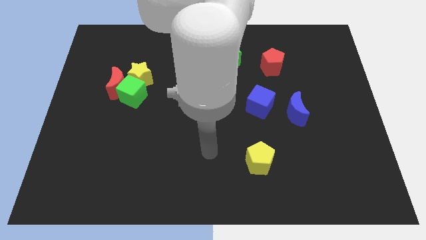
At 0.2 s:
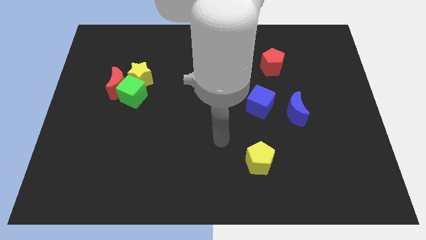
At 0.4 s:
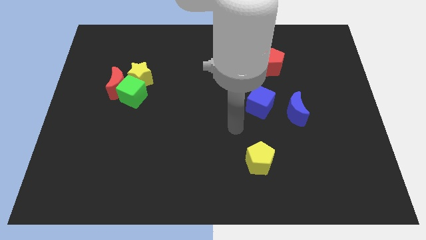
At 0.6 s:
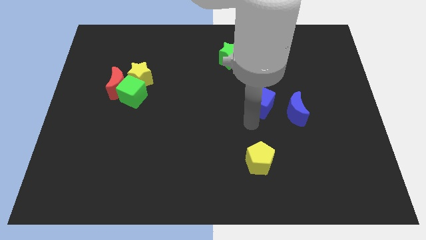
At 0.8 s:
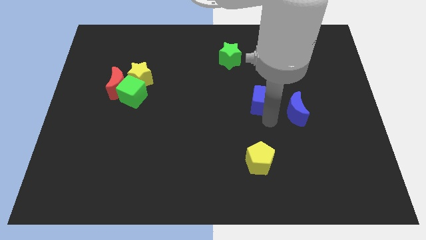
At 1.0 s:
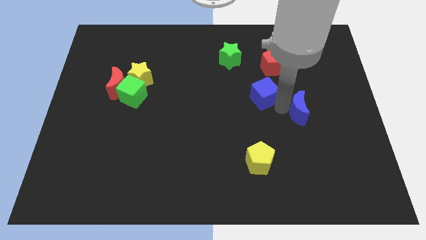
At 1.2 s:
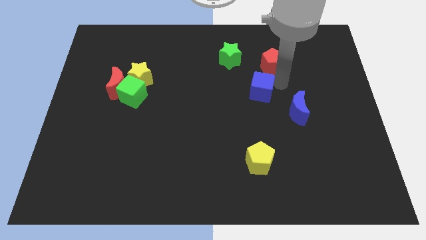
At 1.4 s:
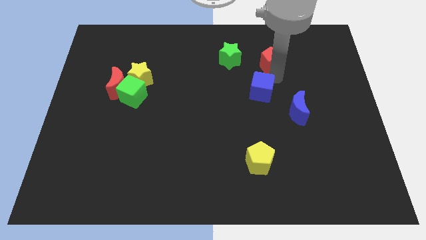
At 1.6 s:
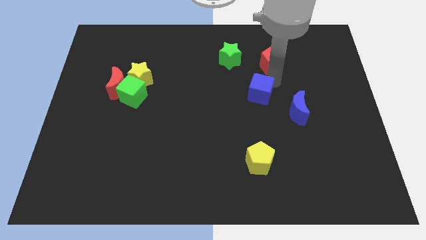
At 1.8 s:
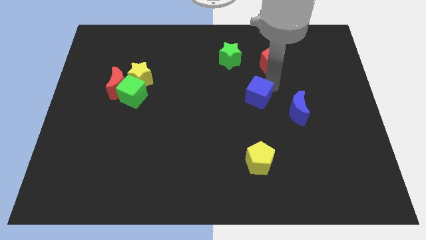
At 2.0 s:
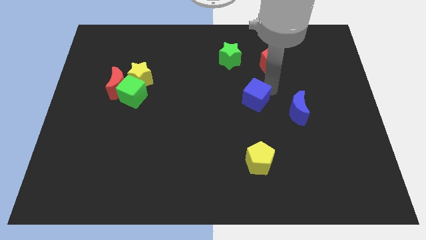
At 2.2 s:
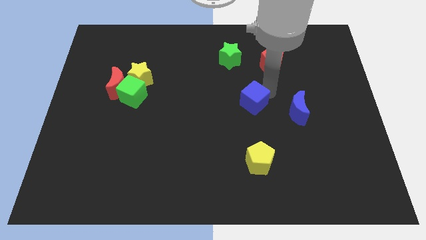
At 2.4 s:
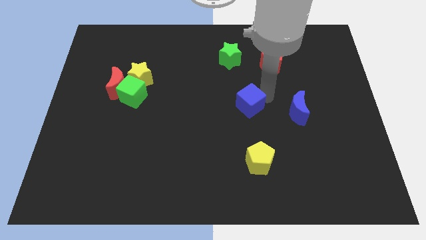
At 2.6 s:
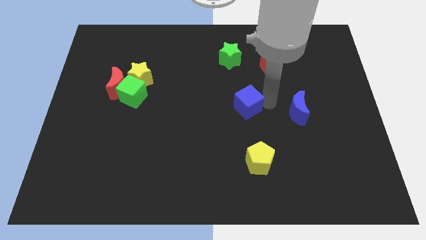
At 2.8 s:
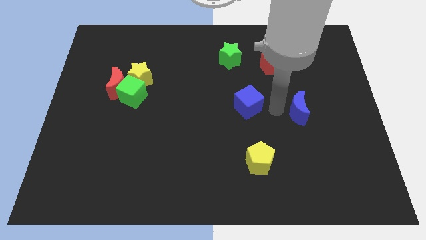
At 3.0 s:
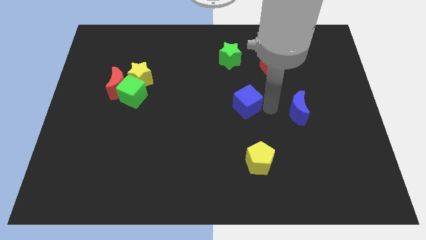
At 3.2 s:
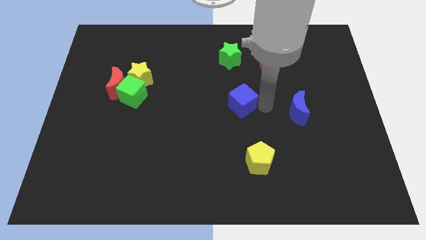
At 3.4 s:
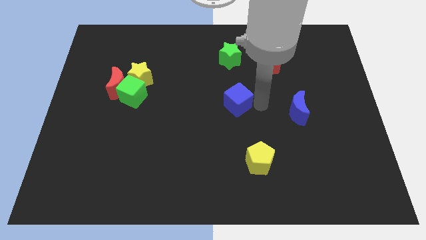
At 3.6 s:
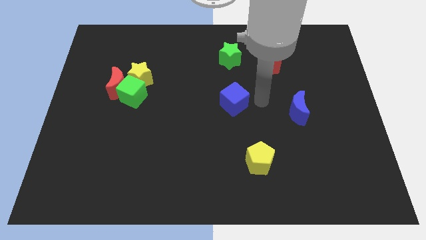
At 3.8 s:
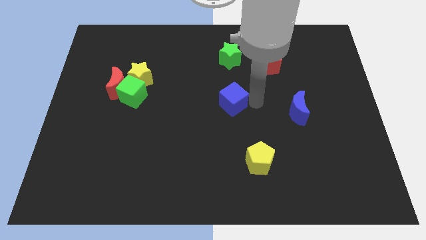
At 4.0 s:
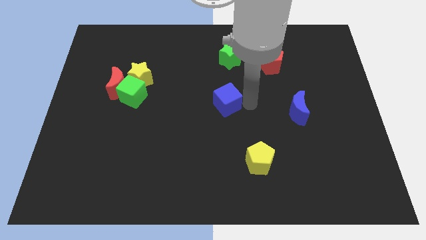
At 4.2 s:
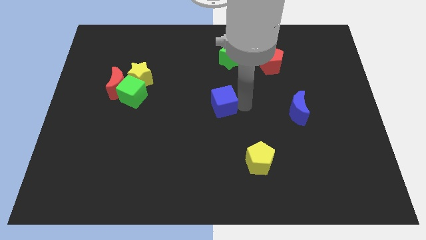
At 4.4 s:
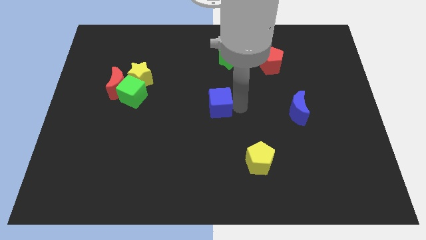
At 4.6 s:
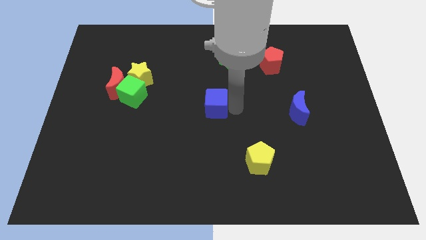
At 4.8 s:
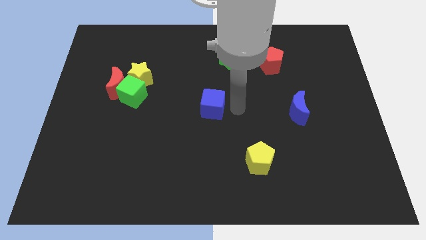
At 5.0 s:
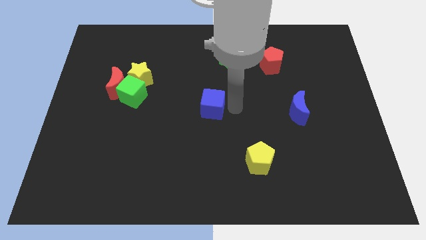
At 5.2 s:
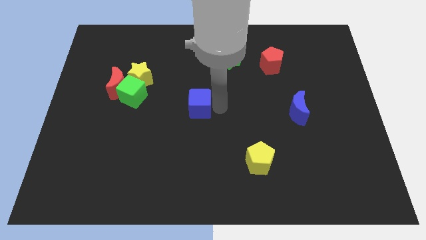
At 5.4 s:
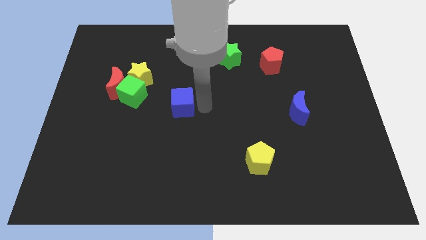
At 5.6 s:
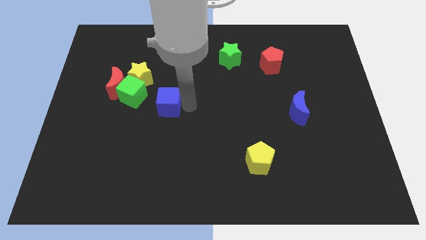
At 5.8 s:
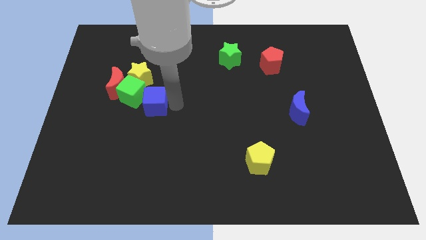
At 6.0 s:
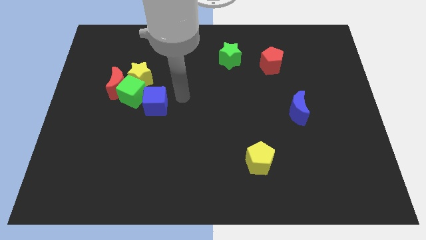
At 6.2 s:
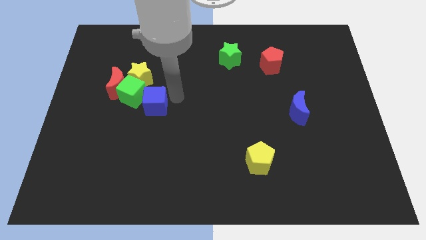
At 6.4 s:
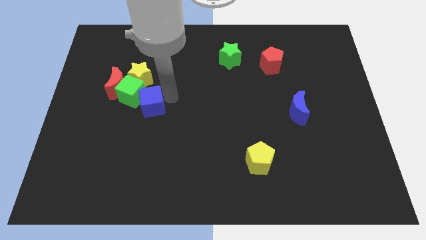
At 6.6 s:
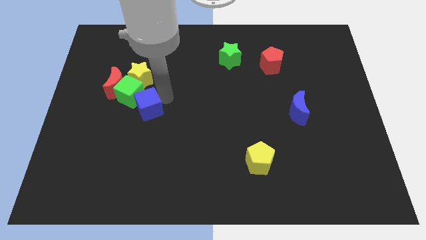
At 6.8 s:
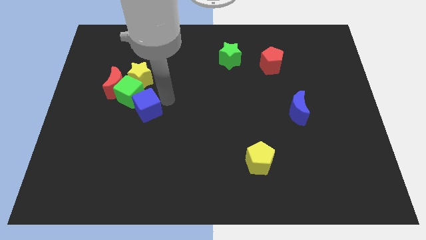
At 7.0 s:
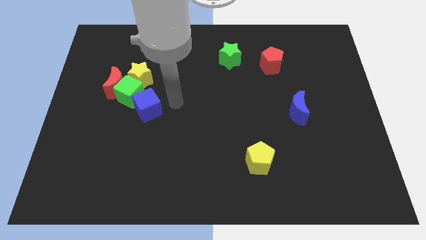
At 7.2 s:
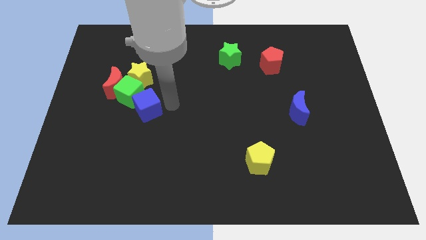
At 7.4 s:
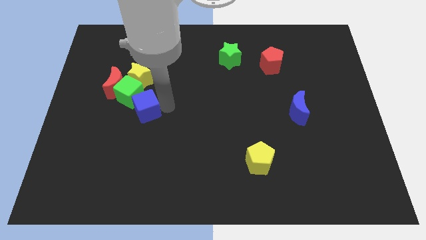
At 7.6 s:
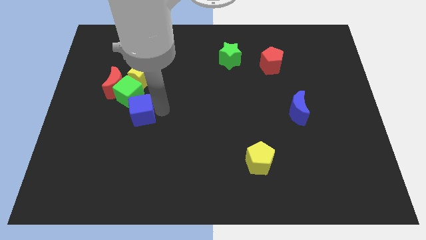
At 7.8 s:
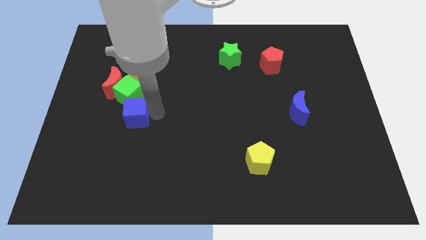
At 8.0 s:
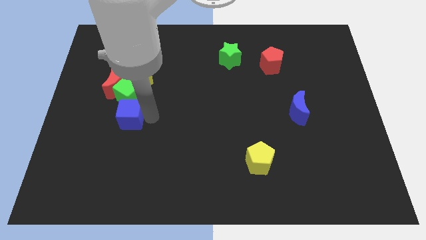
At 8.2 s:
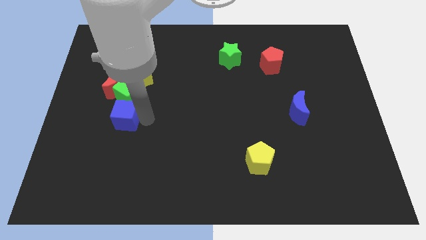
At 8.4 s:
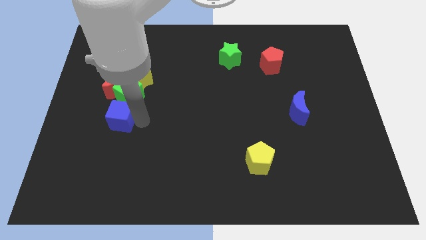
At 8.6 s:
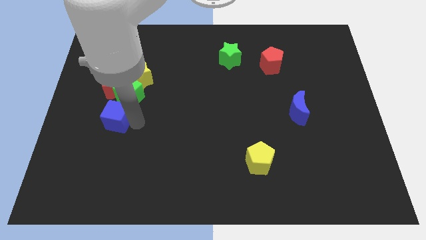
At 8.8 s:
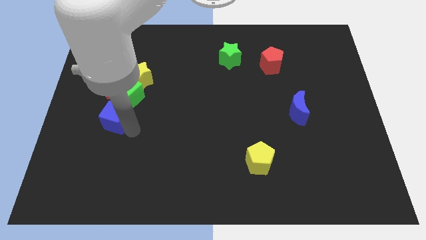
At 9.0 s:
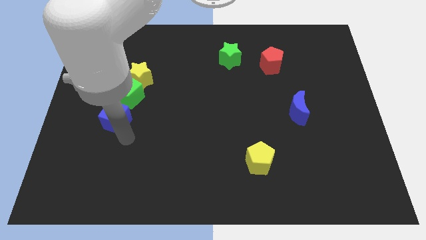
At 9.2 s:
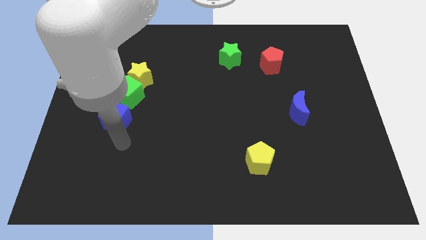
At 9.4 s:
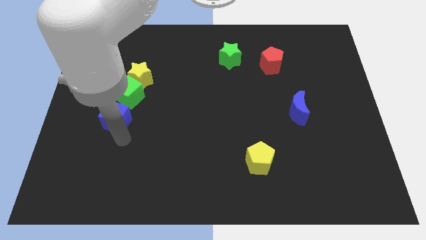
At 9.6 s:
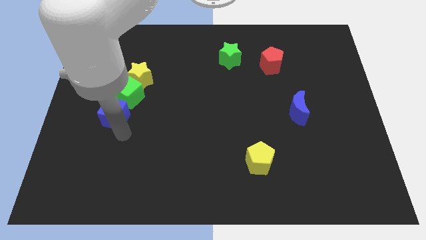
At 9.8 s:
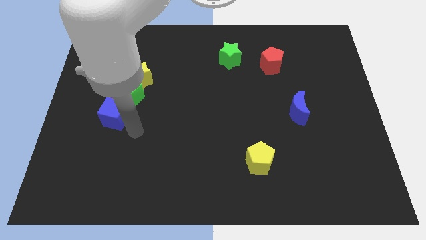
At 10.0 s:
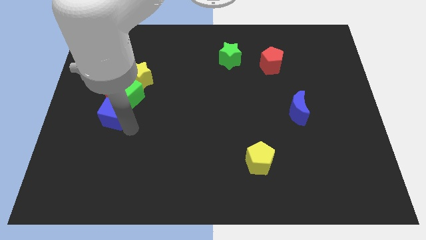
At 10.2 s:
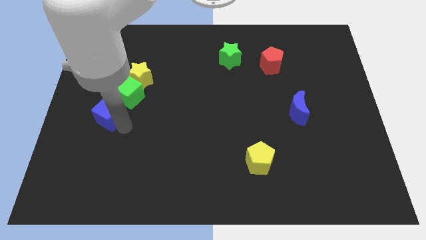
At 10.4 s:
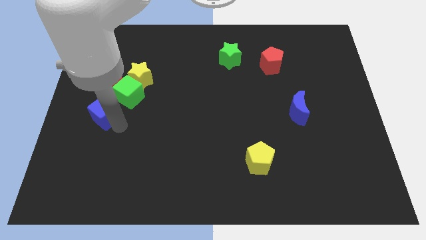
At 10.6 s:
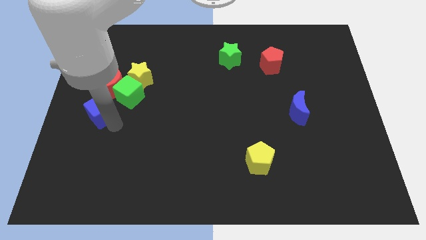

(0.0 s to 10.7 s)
push the blue cube to the center left

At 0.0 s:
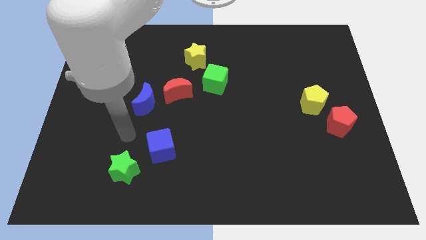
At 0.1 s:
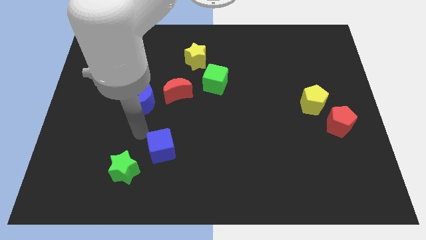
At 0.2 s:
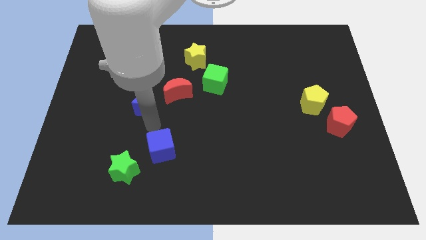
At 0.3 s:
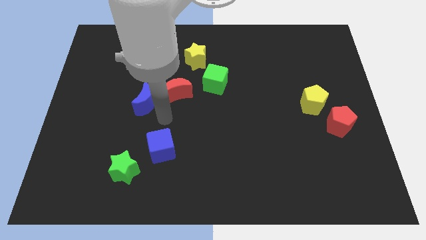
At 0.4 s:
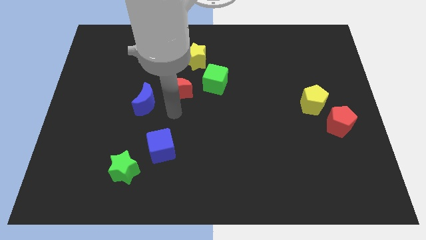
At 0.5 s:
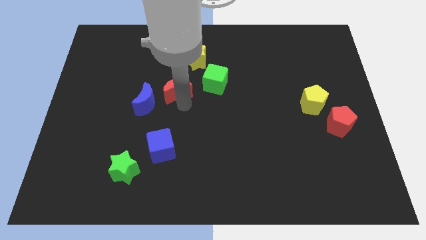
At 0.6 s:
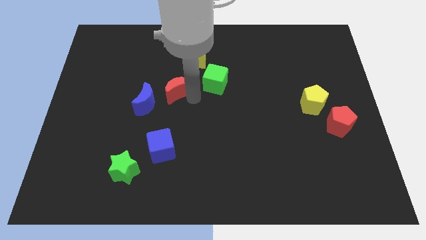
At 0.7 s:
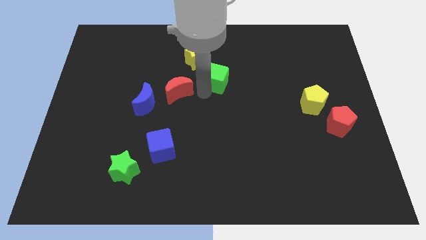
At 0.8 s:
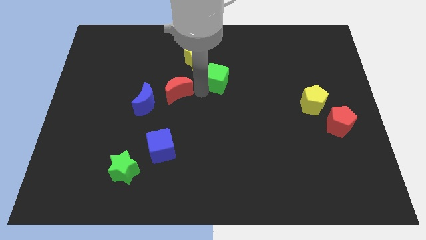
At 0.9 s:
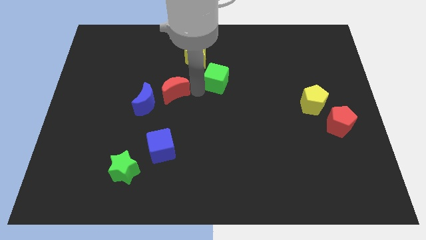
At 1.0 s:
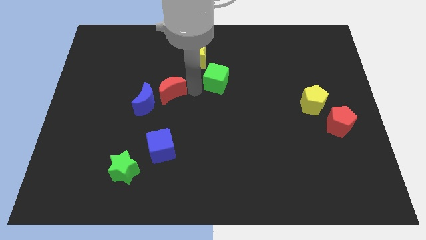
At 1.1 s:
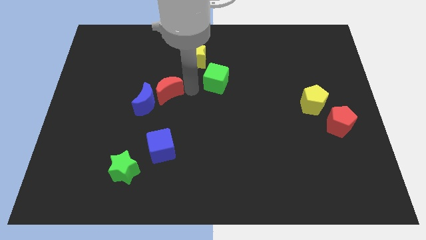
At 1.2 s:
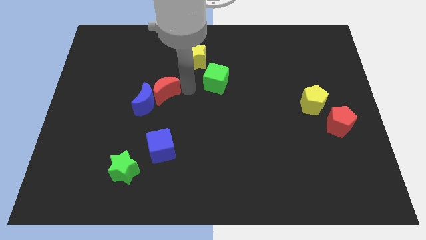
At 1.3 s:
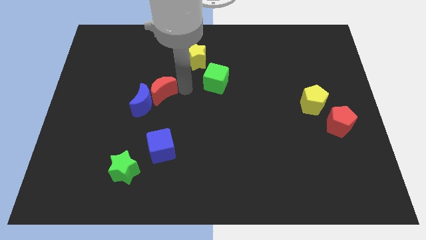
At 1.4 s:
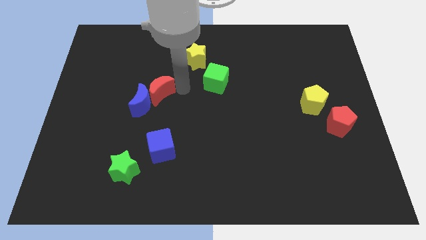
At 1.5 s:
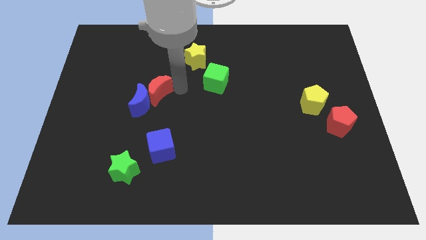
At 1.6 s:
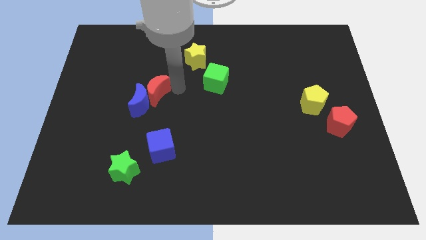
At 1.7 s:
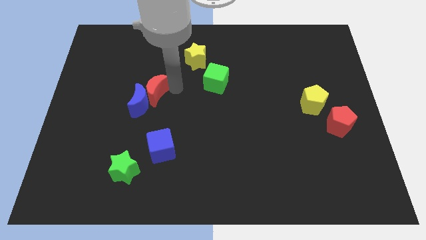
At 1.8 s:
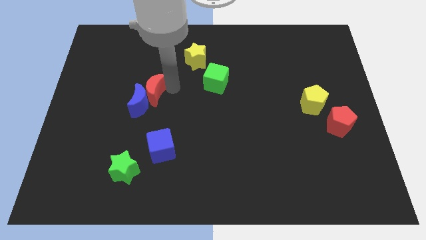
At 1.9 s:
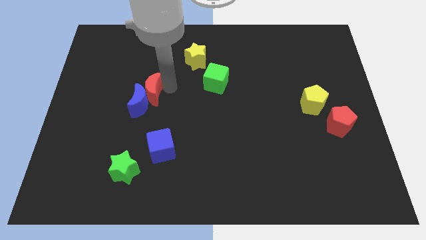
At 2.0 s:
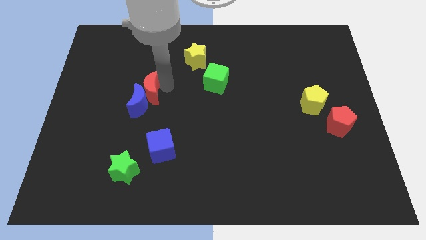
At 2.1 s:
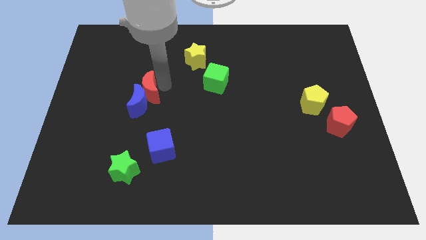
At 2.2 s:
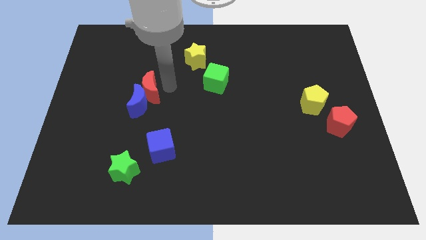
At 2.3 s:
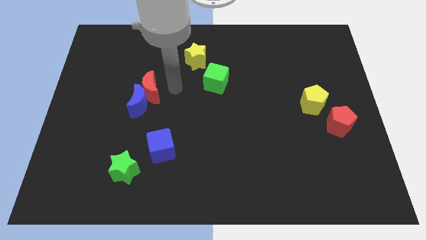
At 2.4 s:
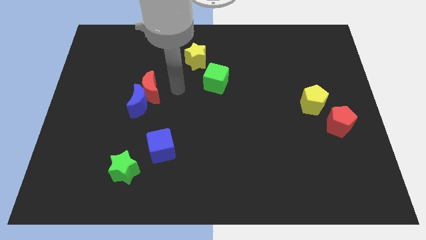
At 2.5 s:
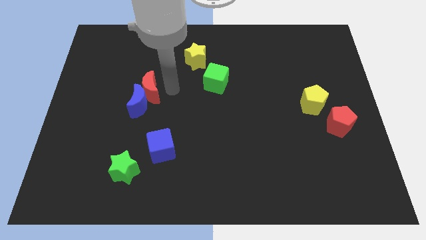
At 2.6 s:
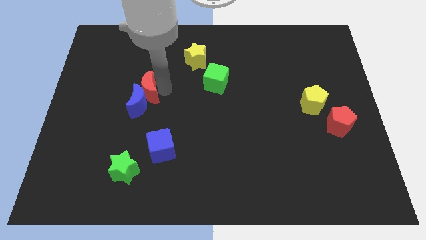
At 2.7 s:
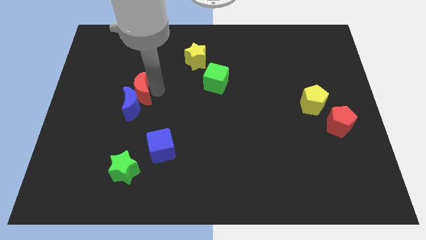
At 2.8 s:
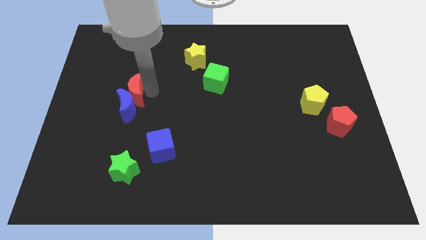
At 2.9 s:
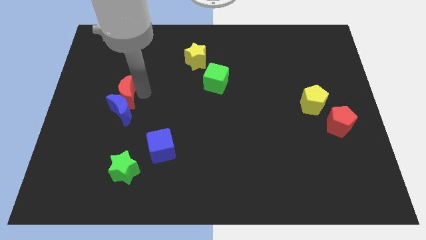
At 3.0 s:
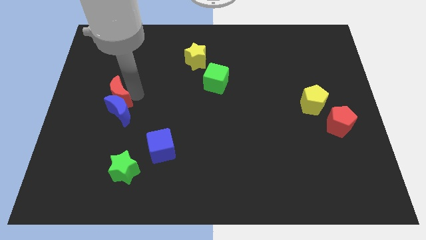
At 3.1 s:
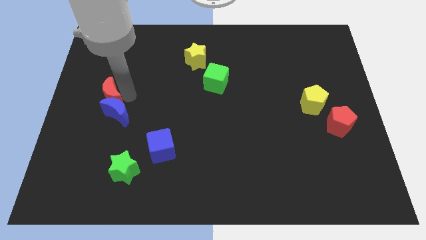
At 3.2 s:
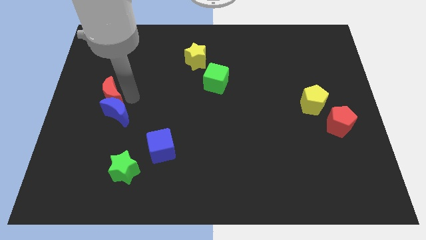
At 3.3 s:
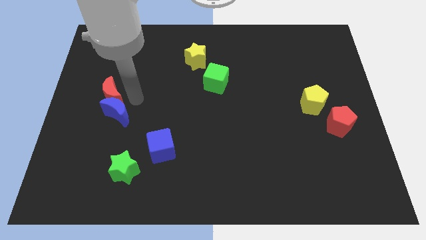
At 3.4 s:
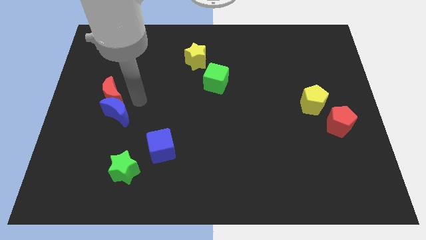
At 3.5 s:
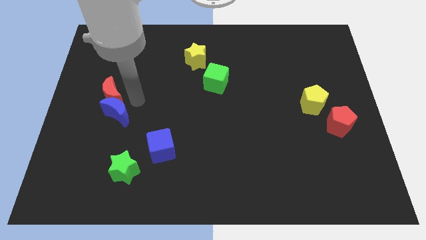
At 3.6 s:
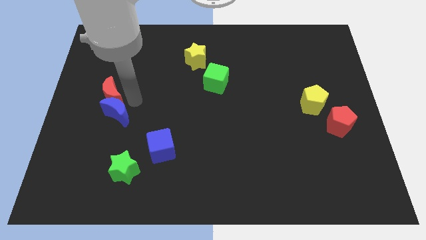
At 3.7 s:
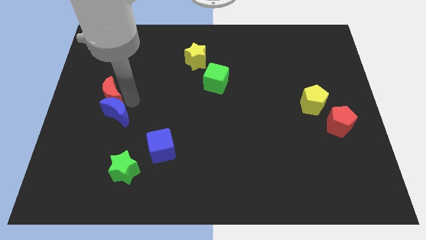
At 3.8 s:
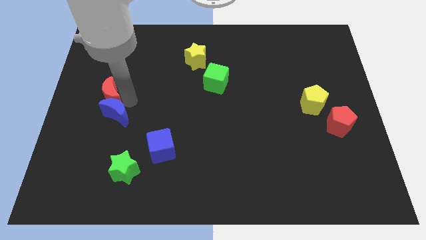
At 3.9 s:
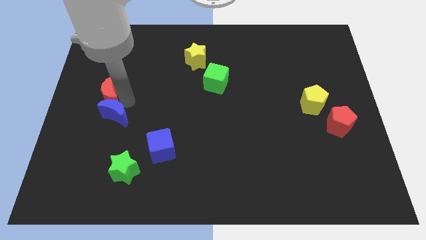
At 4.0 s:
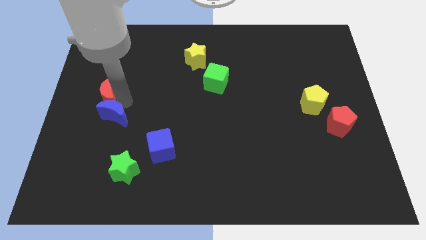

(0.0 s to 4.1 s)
put the red moon to the center left
